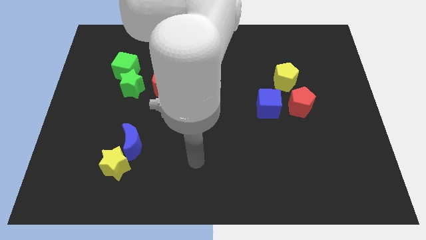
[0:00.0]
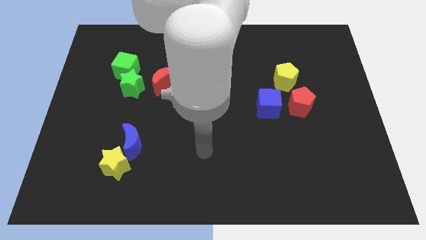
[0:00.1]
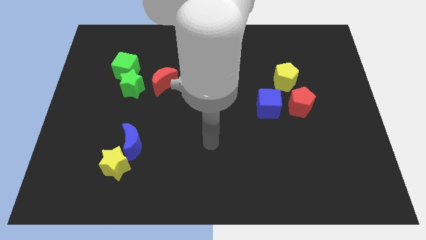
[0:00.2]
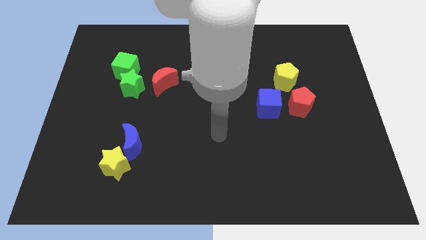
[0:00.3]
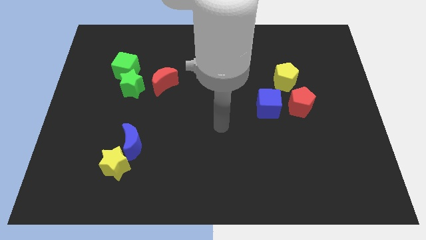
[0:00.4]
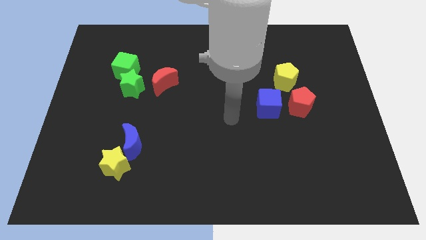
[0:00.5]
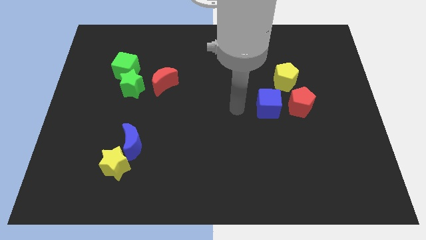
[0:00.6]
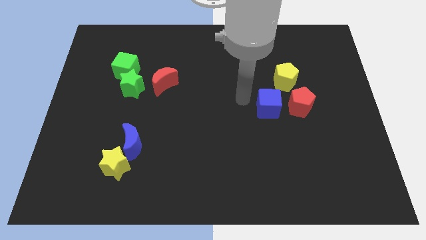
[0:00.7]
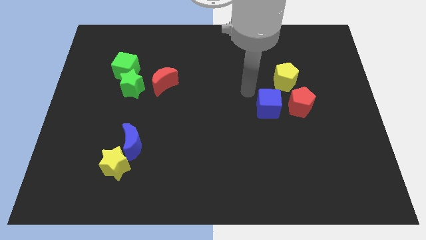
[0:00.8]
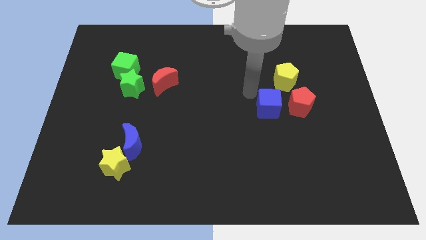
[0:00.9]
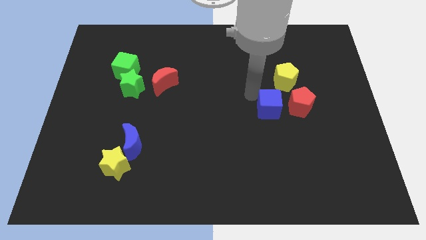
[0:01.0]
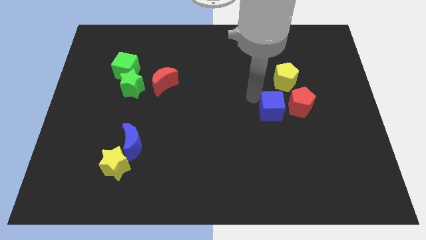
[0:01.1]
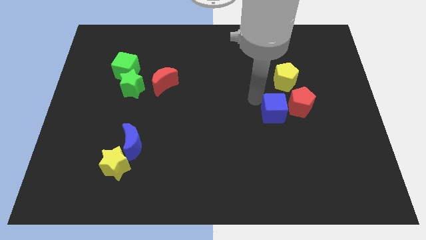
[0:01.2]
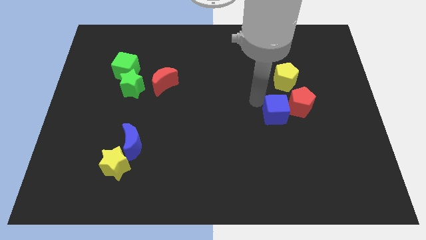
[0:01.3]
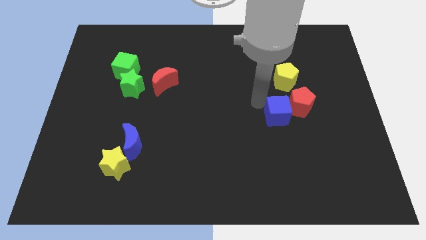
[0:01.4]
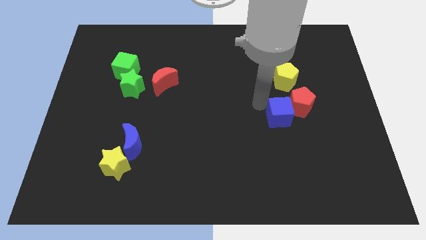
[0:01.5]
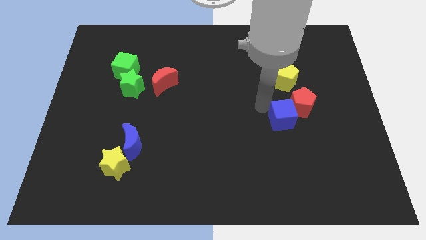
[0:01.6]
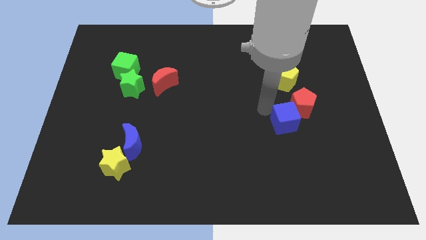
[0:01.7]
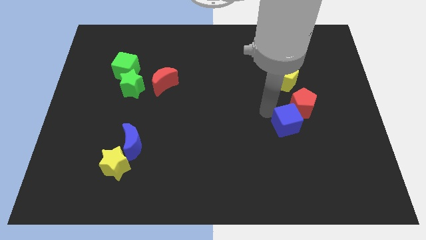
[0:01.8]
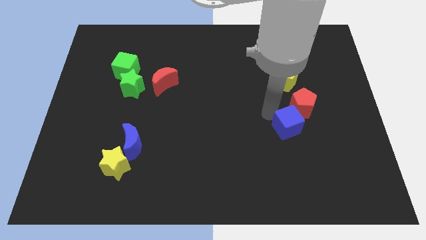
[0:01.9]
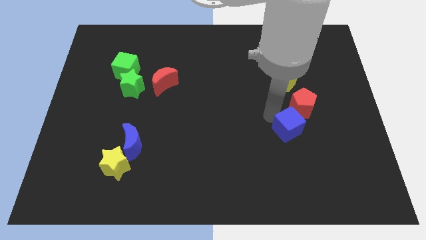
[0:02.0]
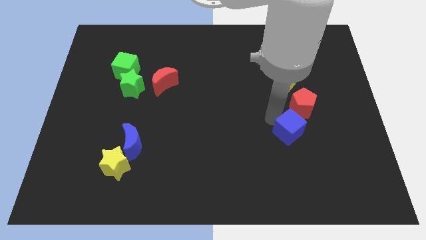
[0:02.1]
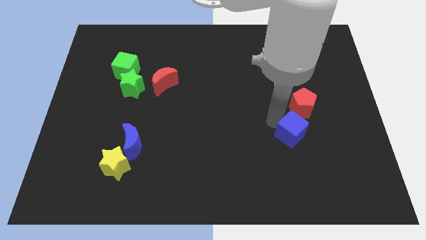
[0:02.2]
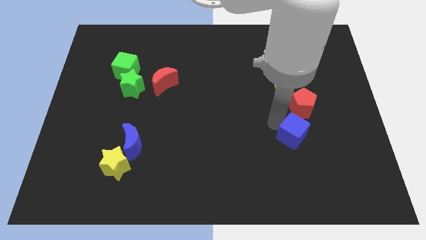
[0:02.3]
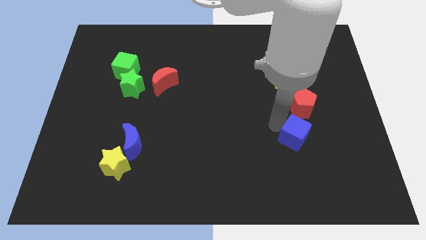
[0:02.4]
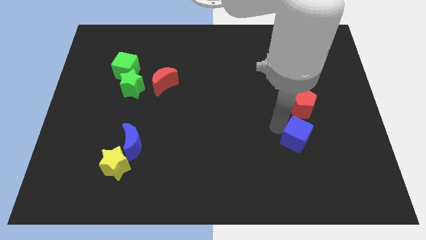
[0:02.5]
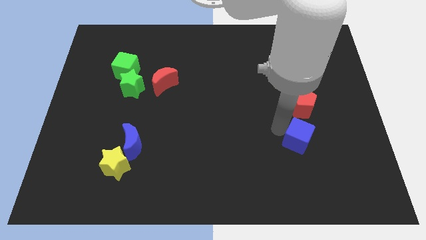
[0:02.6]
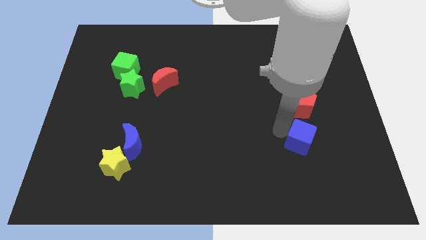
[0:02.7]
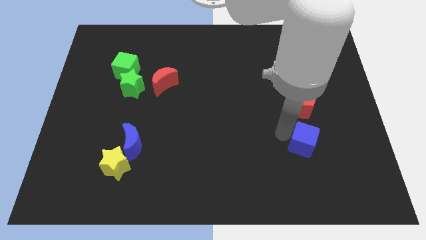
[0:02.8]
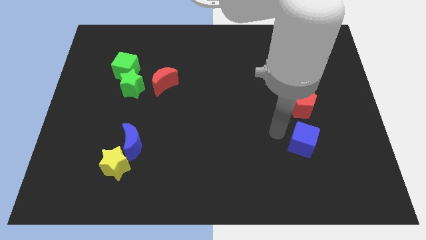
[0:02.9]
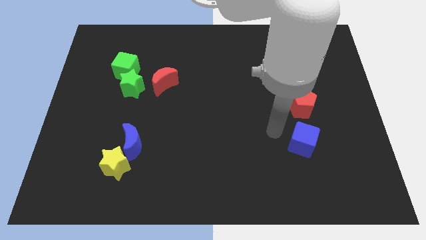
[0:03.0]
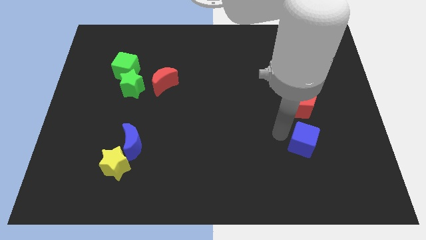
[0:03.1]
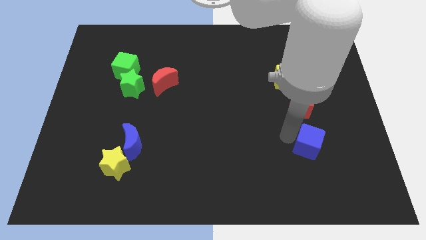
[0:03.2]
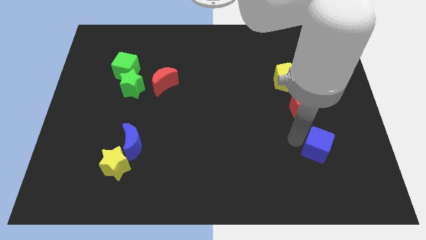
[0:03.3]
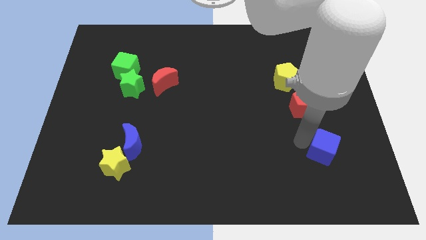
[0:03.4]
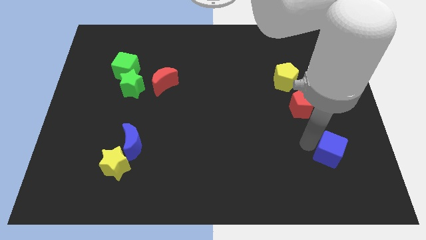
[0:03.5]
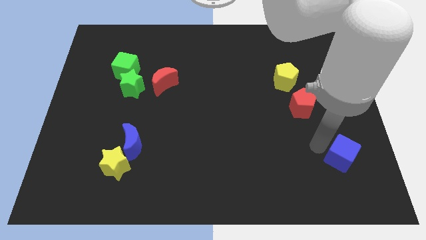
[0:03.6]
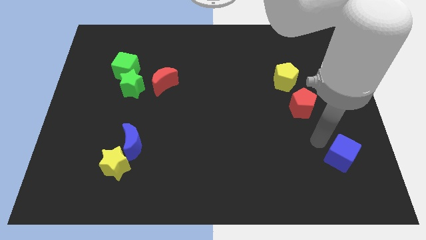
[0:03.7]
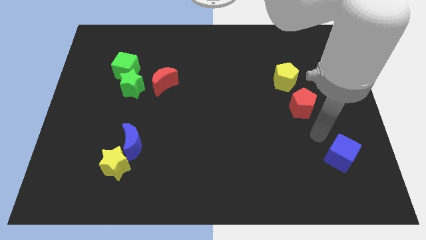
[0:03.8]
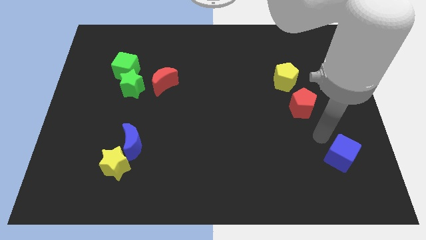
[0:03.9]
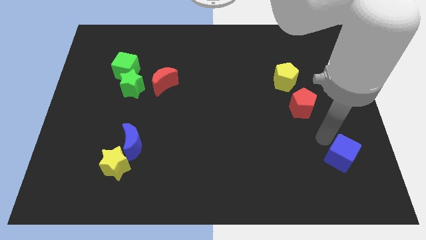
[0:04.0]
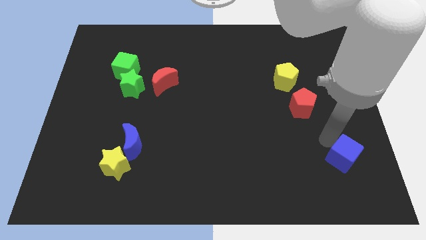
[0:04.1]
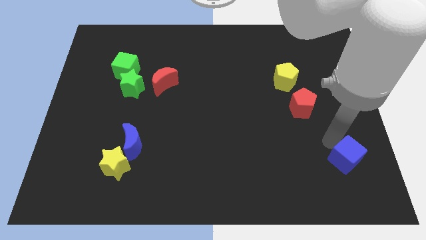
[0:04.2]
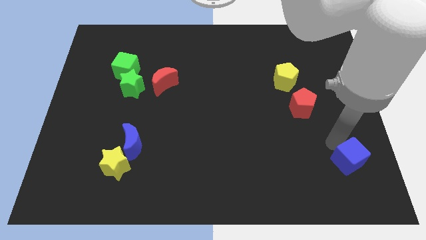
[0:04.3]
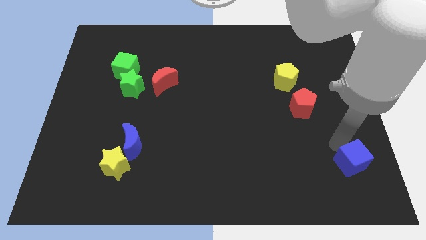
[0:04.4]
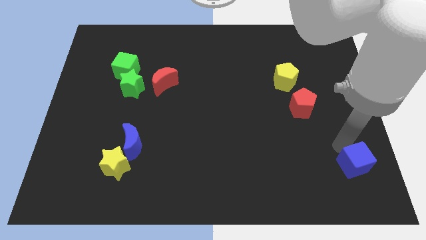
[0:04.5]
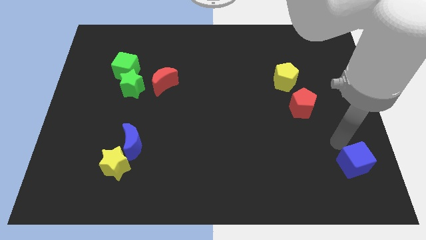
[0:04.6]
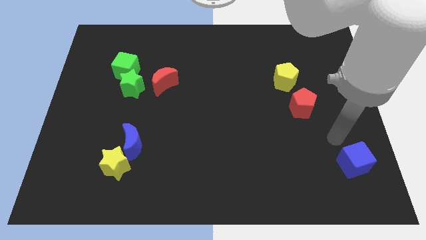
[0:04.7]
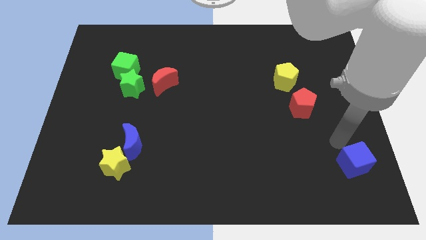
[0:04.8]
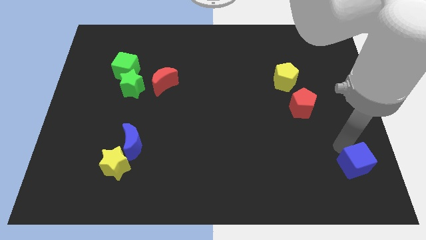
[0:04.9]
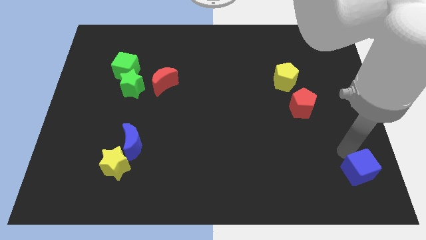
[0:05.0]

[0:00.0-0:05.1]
put the blue cube to the lower right corner

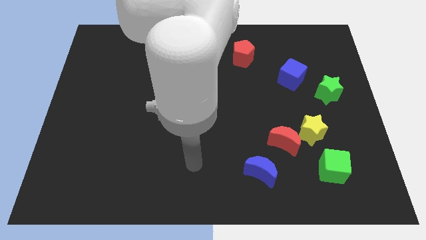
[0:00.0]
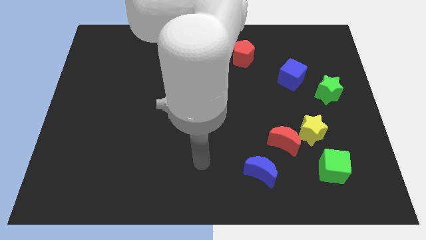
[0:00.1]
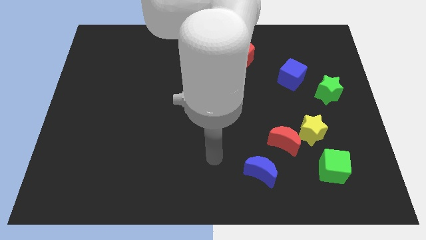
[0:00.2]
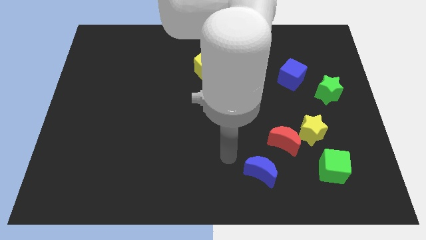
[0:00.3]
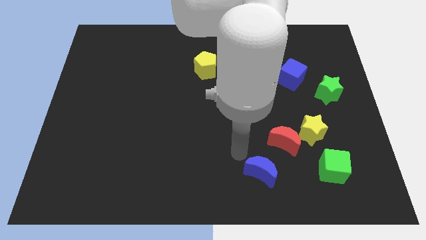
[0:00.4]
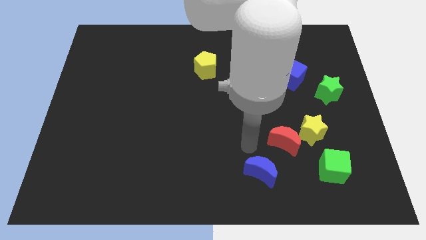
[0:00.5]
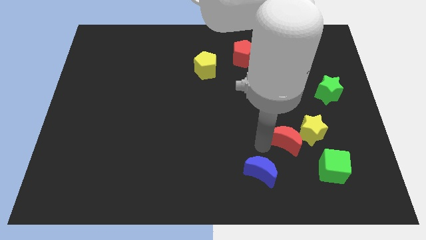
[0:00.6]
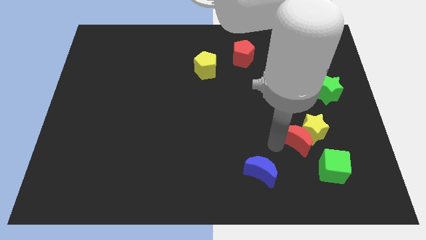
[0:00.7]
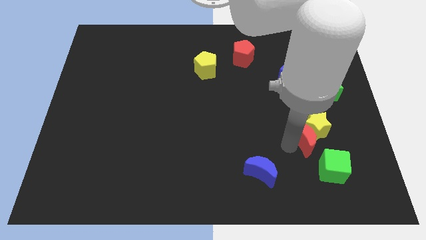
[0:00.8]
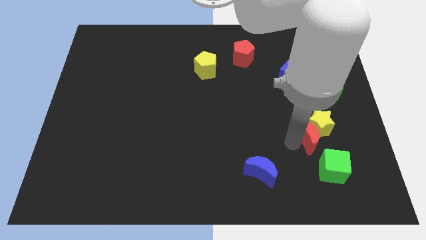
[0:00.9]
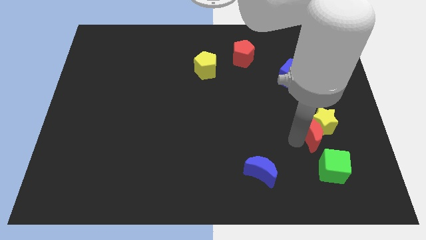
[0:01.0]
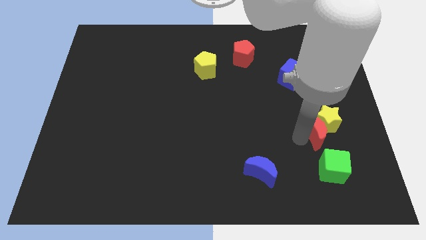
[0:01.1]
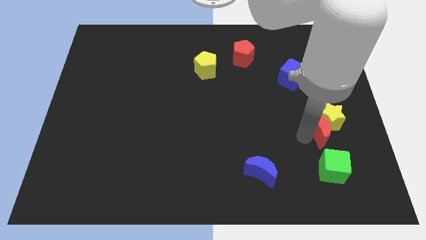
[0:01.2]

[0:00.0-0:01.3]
push the yellow star to the center right
